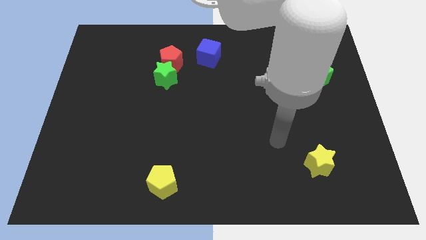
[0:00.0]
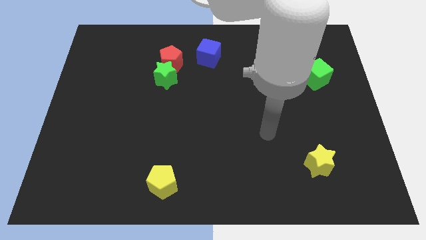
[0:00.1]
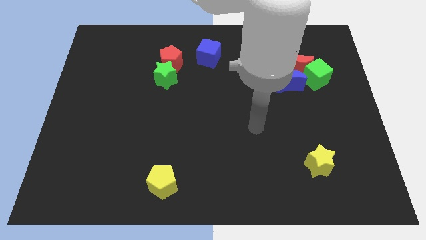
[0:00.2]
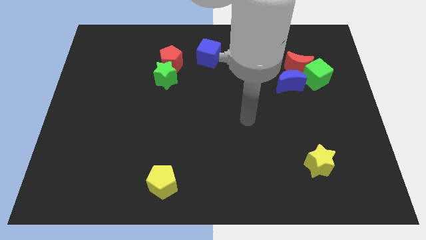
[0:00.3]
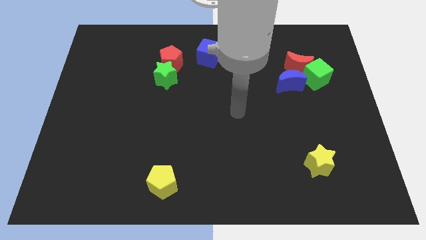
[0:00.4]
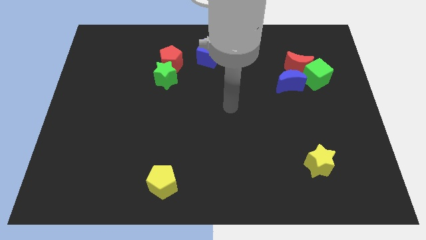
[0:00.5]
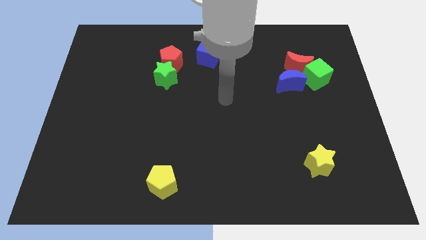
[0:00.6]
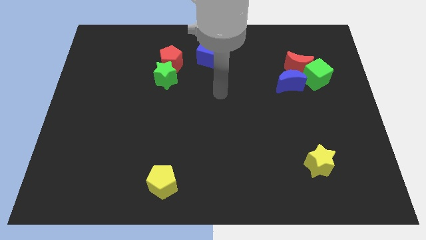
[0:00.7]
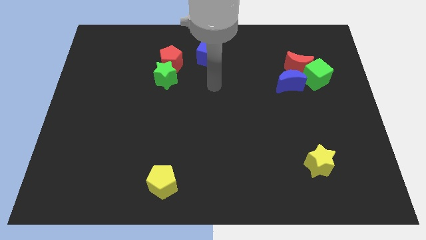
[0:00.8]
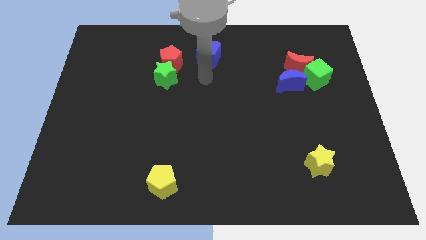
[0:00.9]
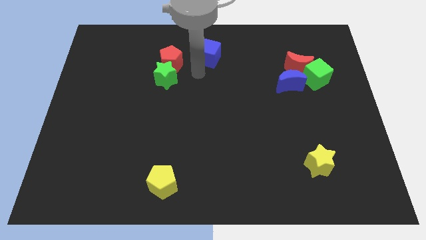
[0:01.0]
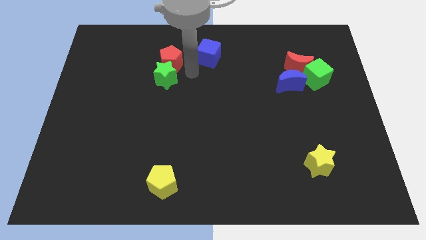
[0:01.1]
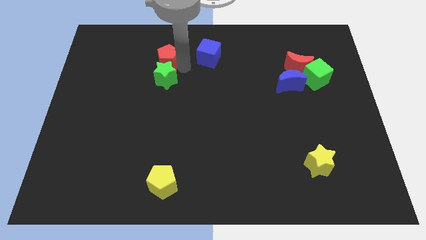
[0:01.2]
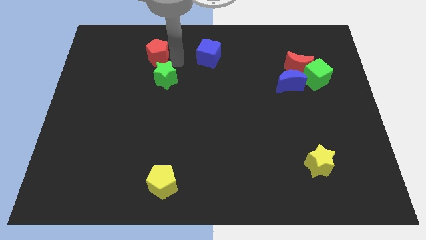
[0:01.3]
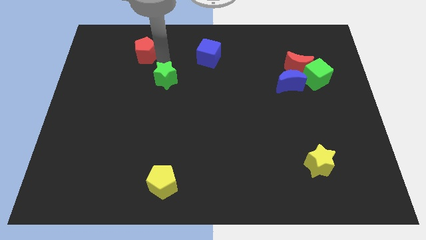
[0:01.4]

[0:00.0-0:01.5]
pull the green star apart from the red pentagon

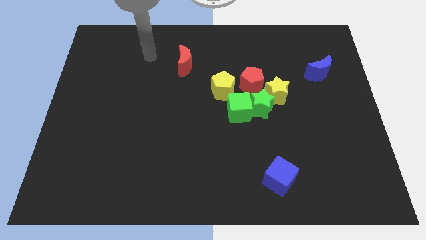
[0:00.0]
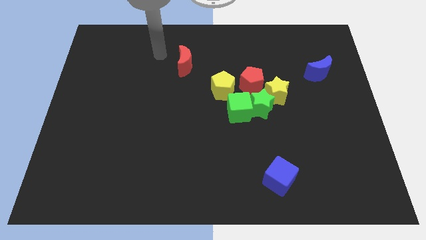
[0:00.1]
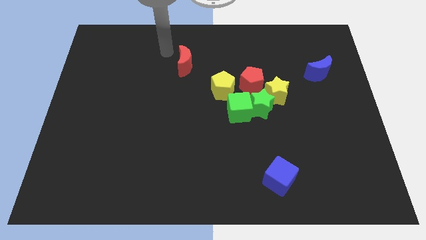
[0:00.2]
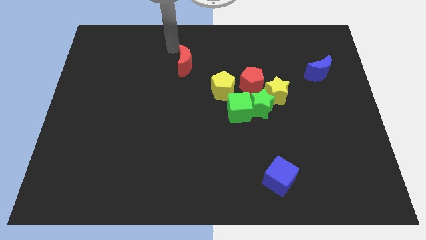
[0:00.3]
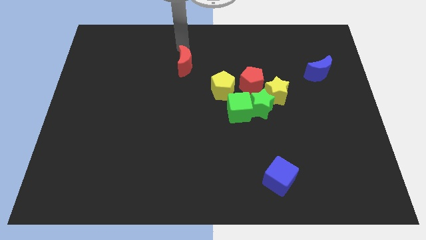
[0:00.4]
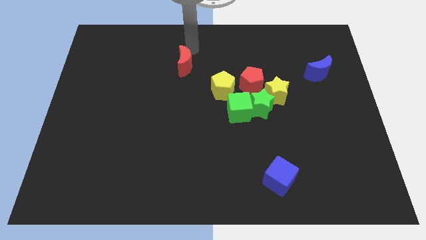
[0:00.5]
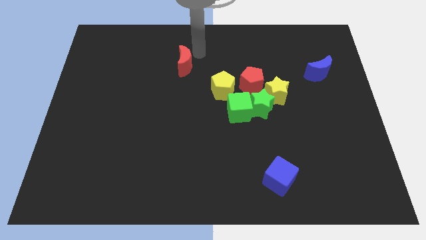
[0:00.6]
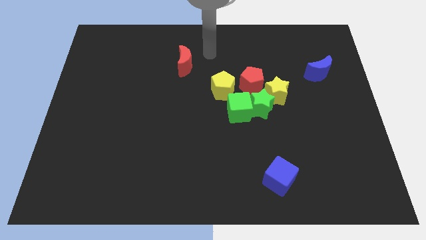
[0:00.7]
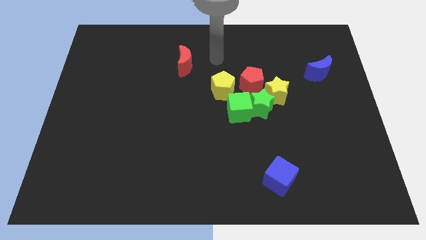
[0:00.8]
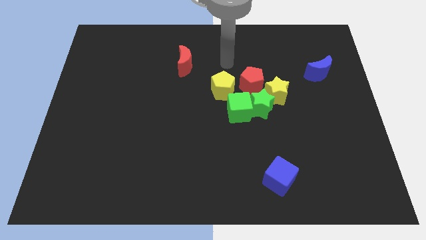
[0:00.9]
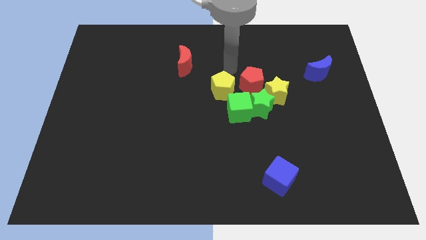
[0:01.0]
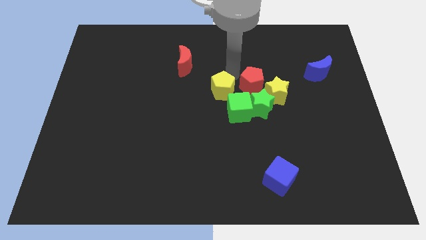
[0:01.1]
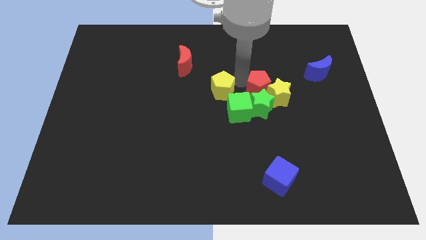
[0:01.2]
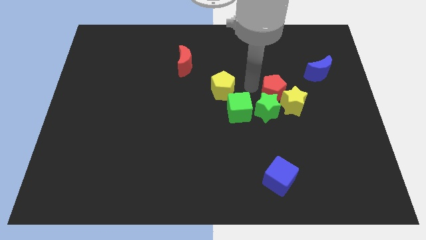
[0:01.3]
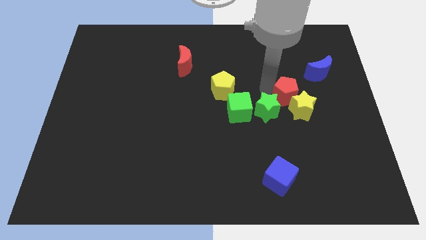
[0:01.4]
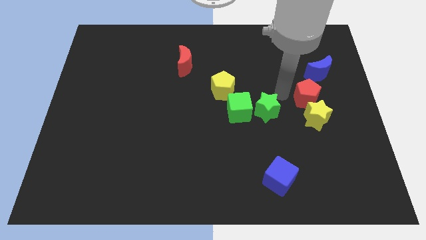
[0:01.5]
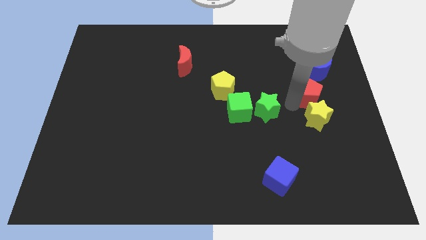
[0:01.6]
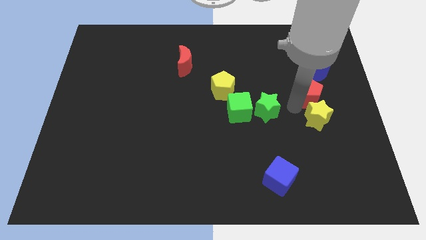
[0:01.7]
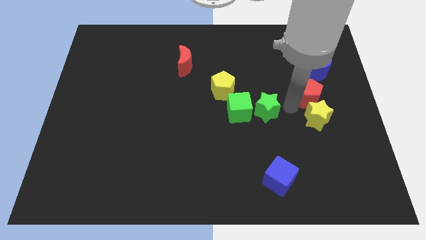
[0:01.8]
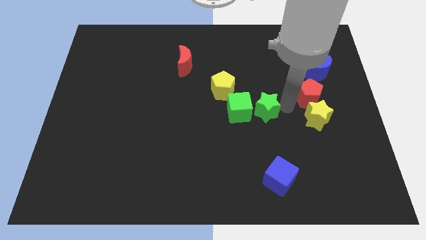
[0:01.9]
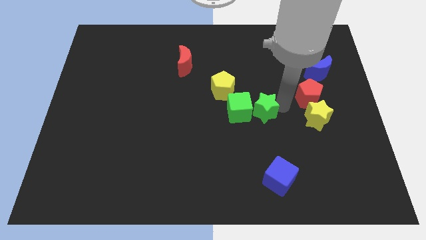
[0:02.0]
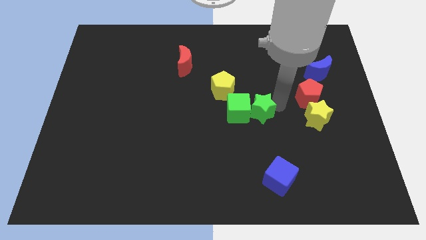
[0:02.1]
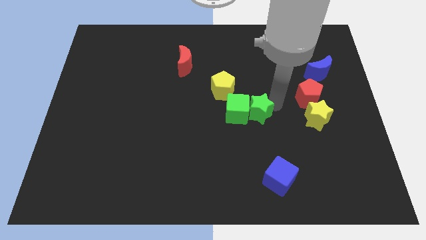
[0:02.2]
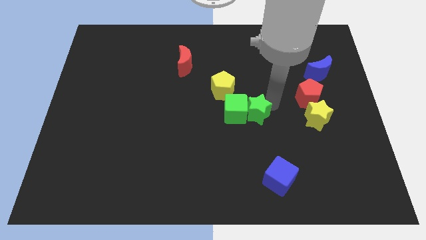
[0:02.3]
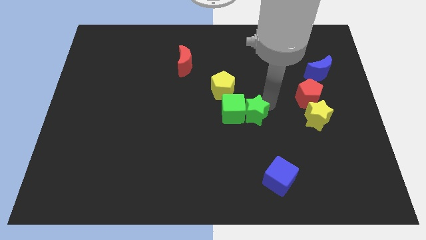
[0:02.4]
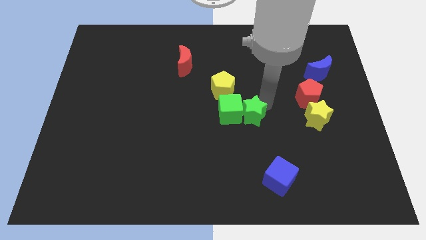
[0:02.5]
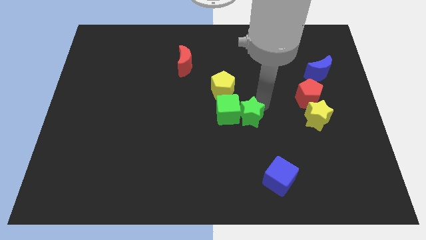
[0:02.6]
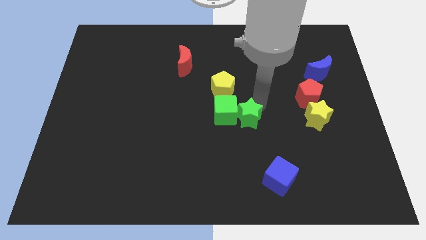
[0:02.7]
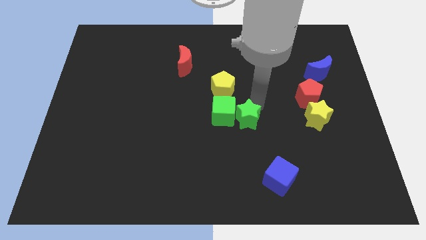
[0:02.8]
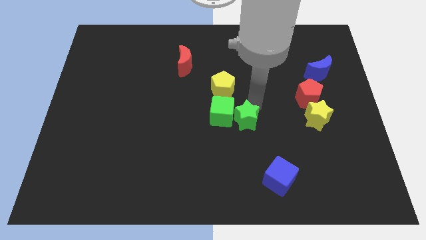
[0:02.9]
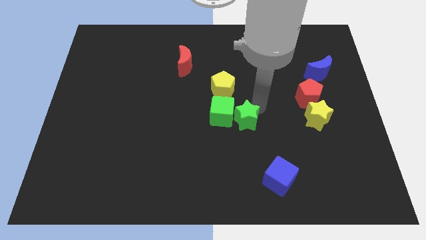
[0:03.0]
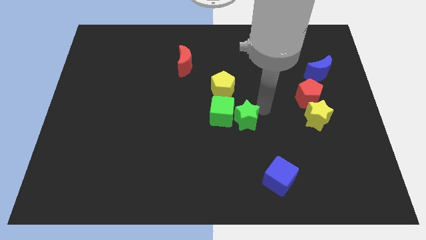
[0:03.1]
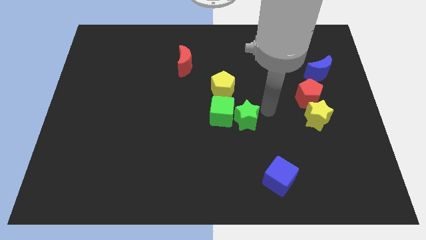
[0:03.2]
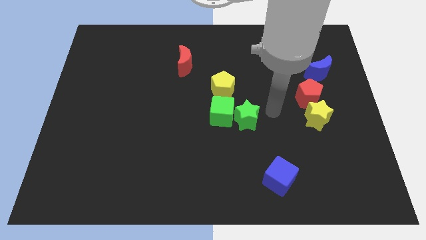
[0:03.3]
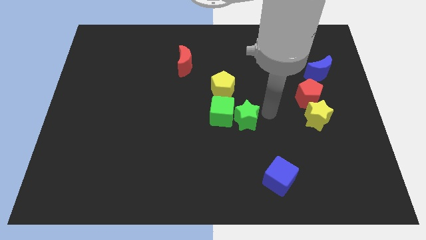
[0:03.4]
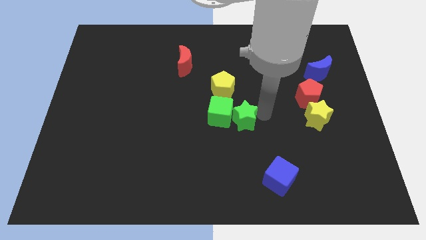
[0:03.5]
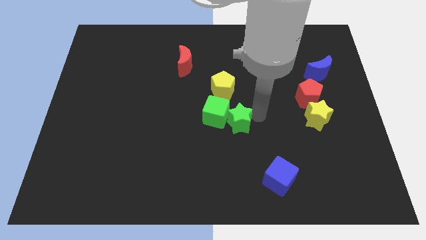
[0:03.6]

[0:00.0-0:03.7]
separate the green star from the group of blocks

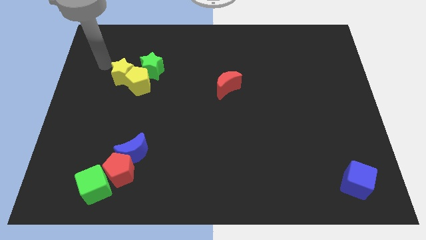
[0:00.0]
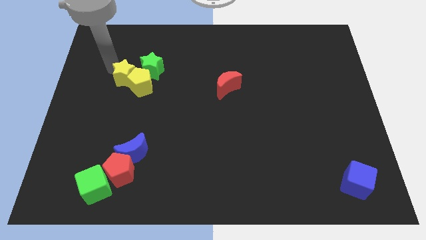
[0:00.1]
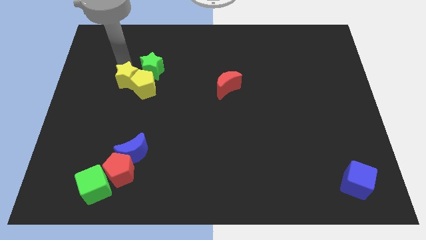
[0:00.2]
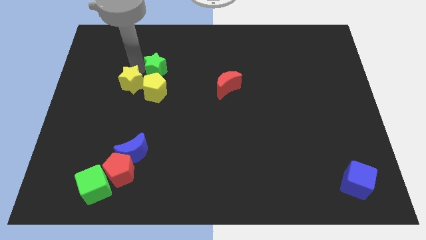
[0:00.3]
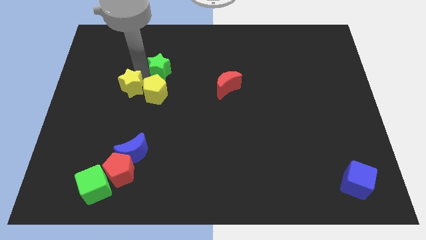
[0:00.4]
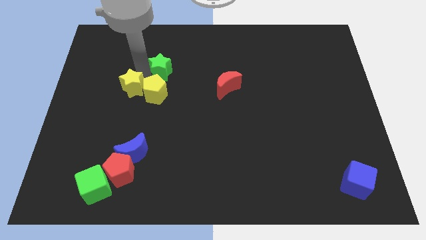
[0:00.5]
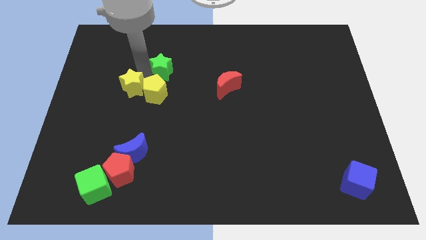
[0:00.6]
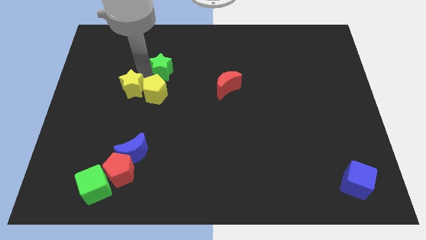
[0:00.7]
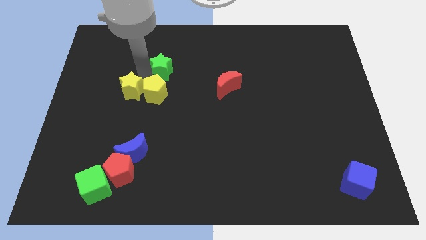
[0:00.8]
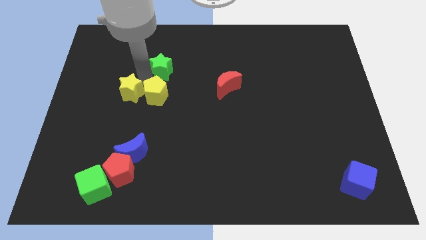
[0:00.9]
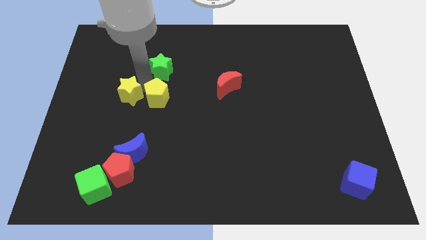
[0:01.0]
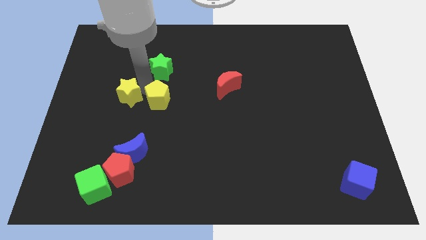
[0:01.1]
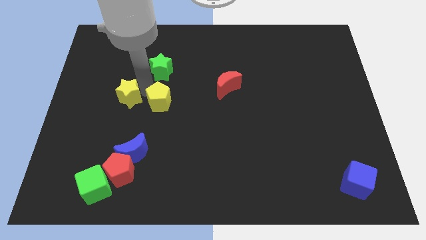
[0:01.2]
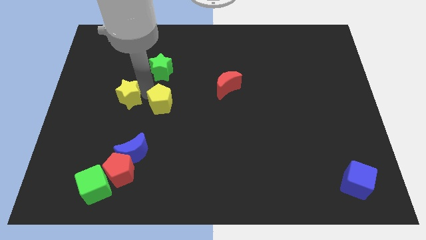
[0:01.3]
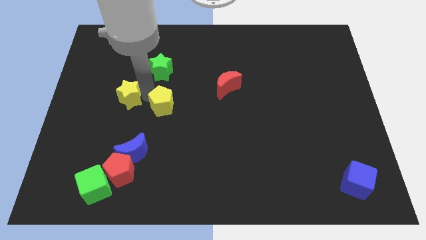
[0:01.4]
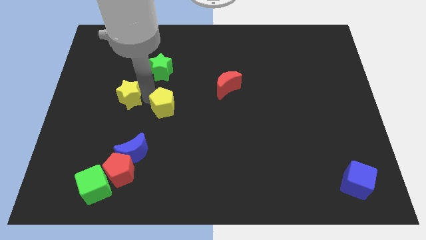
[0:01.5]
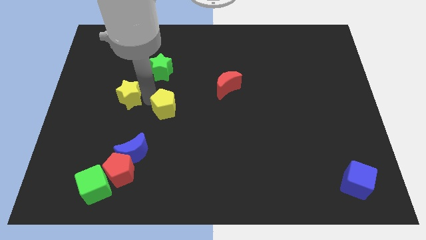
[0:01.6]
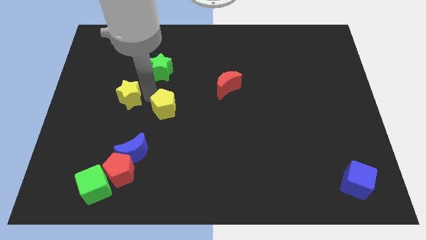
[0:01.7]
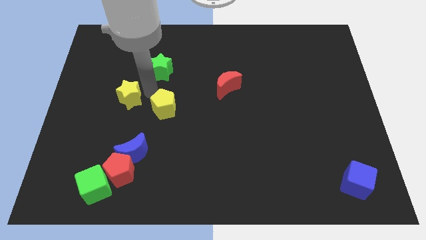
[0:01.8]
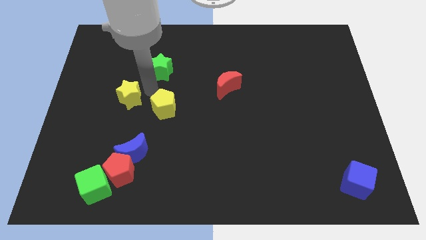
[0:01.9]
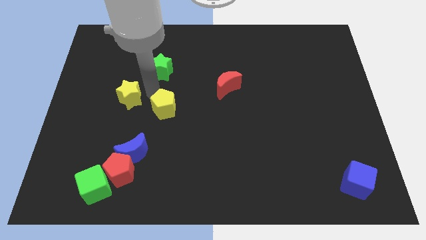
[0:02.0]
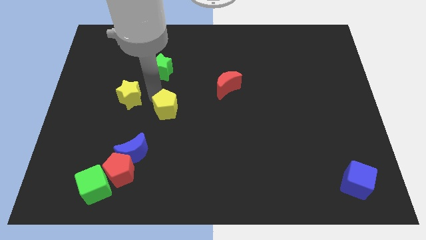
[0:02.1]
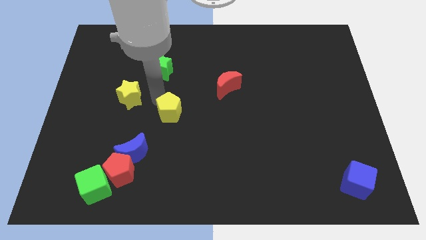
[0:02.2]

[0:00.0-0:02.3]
separate the yellow pentagon from the yellow star and green star

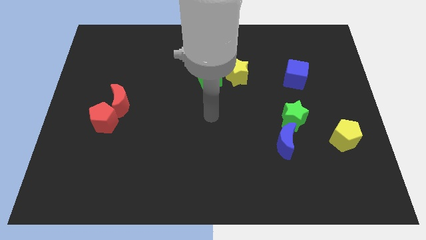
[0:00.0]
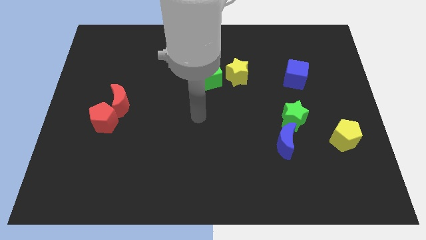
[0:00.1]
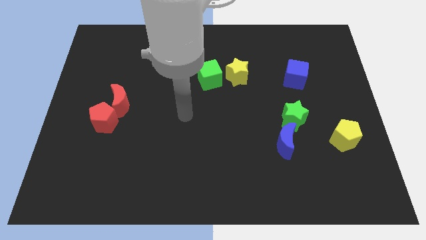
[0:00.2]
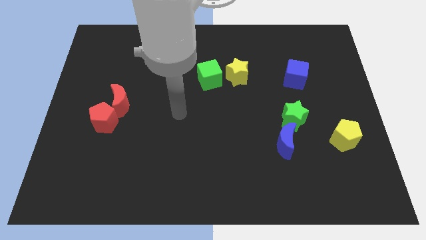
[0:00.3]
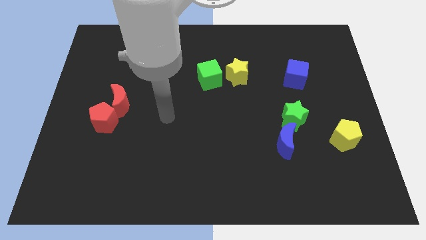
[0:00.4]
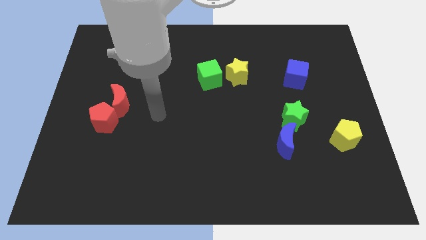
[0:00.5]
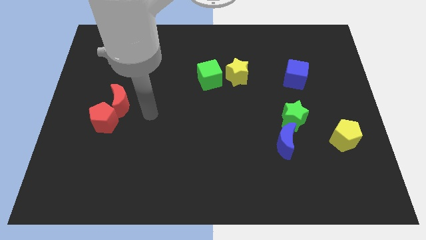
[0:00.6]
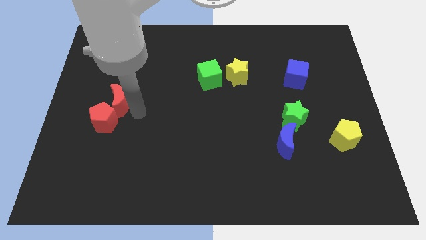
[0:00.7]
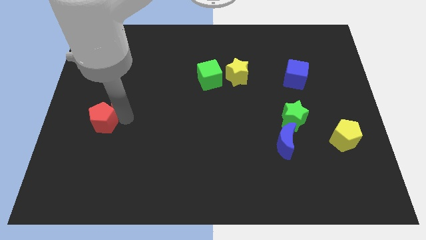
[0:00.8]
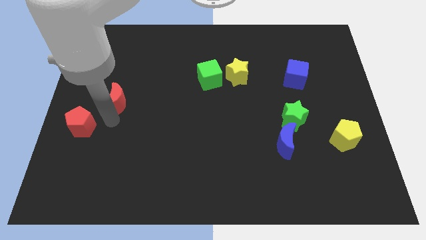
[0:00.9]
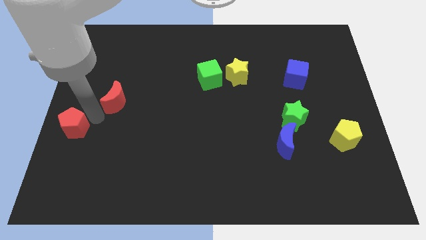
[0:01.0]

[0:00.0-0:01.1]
pull the red moon apart from the red pentagon

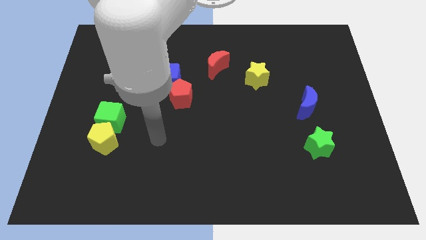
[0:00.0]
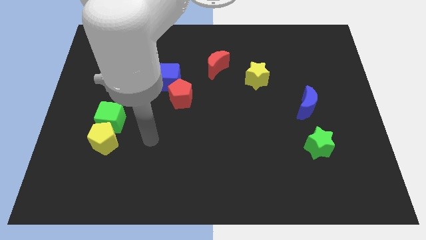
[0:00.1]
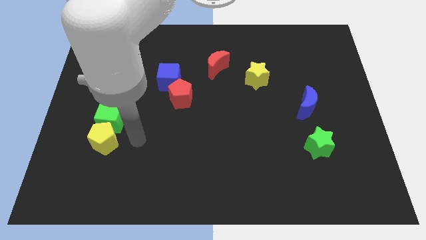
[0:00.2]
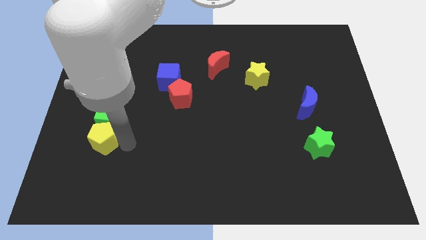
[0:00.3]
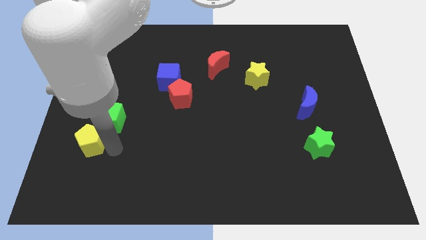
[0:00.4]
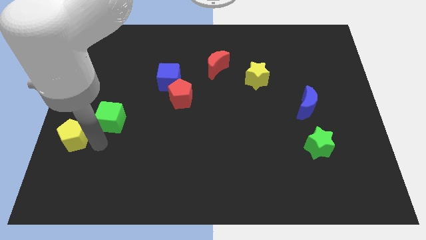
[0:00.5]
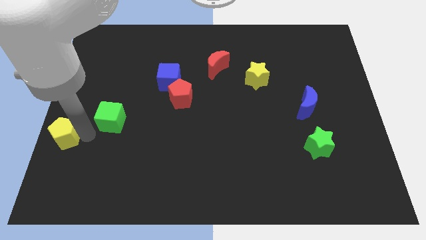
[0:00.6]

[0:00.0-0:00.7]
pull the green cube apart from the yellow pentagon
